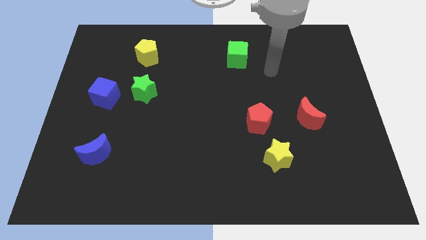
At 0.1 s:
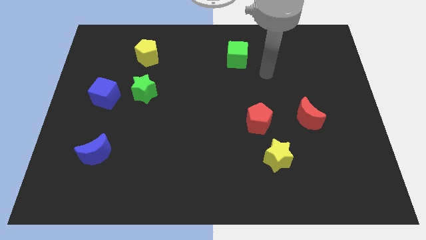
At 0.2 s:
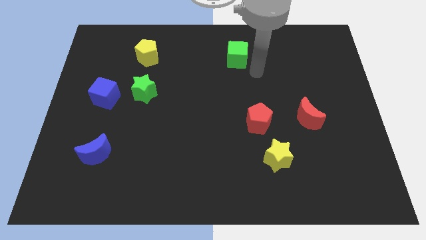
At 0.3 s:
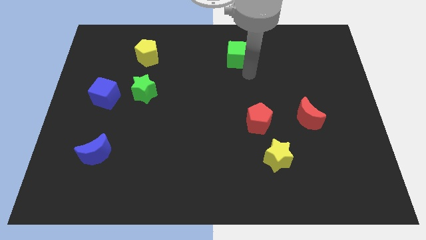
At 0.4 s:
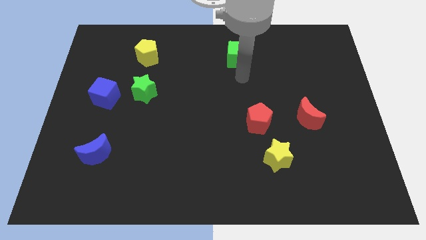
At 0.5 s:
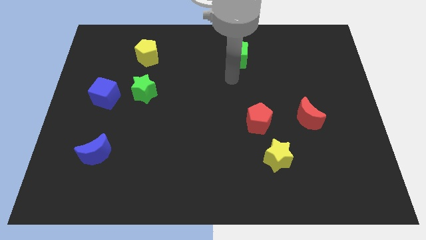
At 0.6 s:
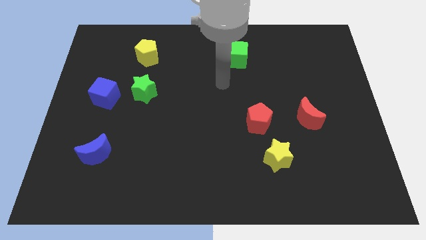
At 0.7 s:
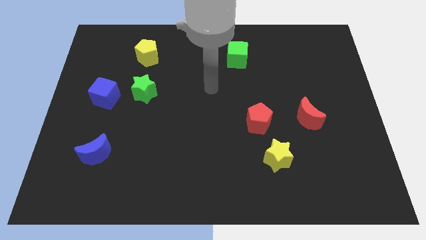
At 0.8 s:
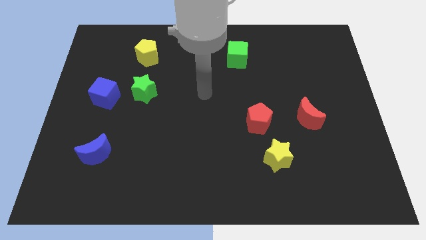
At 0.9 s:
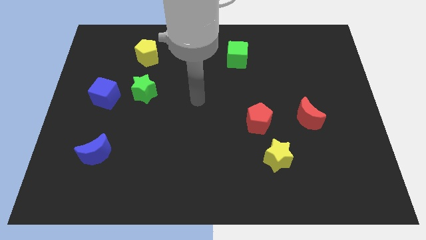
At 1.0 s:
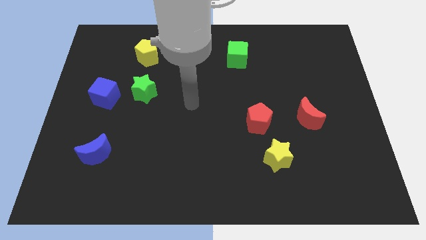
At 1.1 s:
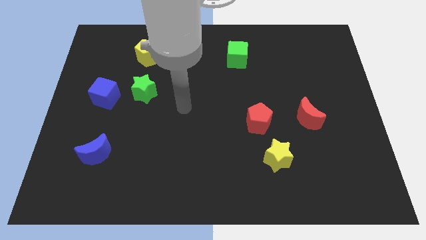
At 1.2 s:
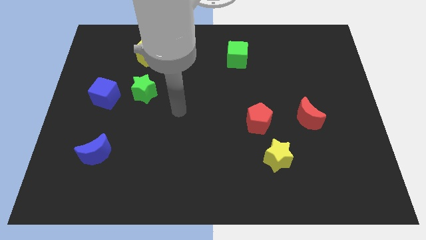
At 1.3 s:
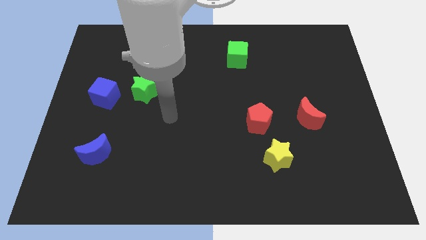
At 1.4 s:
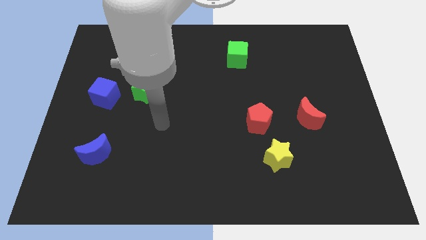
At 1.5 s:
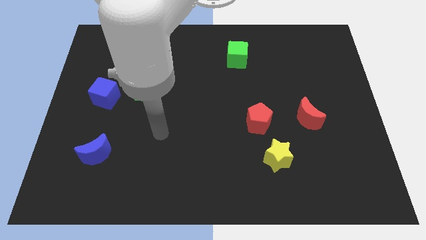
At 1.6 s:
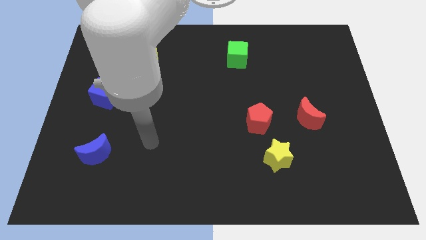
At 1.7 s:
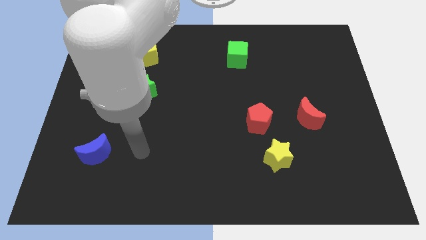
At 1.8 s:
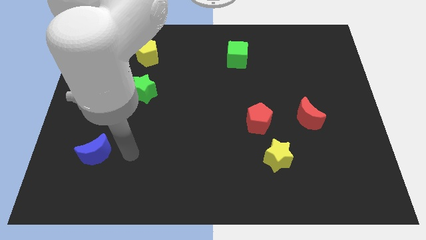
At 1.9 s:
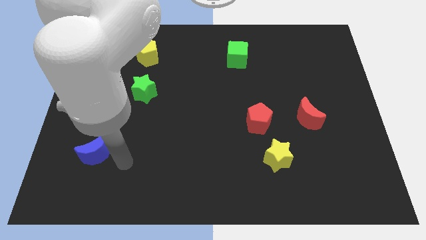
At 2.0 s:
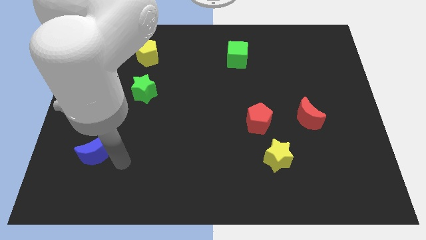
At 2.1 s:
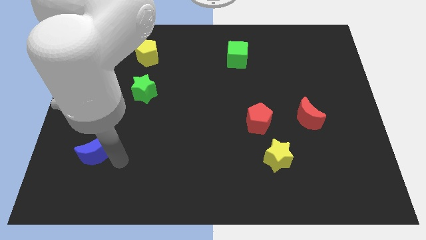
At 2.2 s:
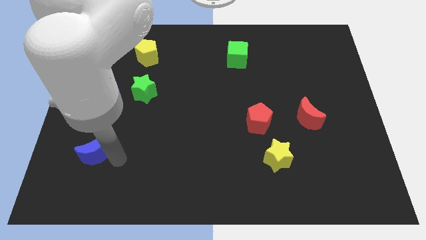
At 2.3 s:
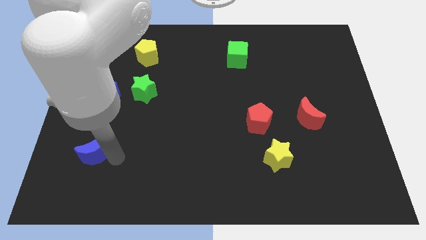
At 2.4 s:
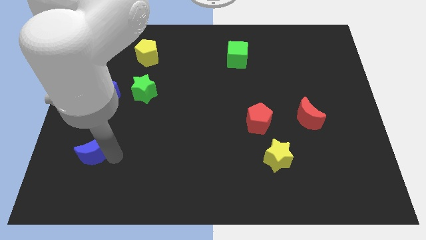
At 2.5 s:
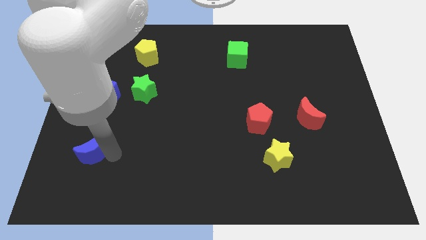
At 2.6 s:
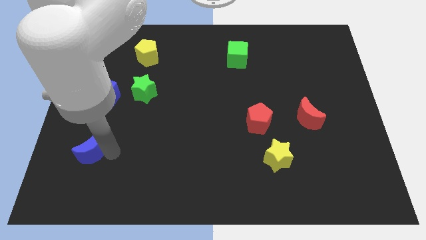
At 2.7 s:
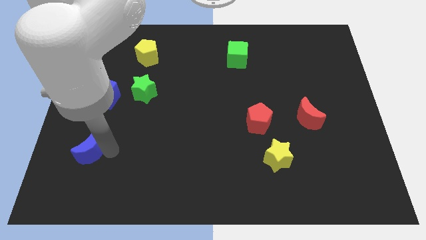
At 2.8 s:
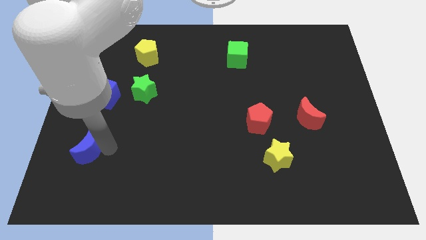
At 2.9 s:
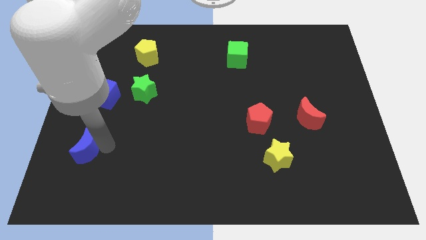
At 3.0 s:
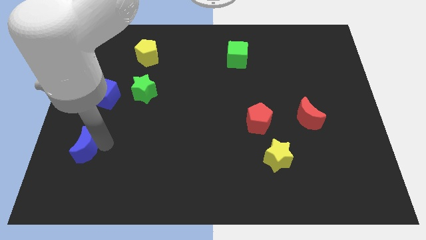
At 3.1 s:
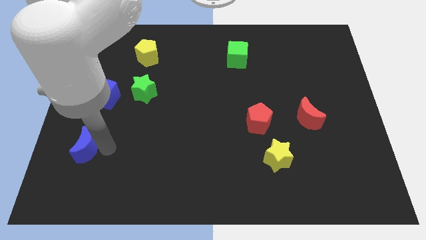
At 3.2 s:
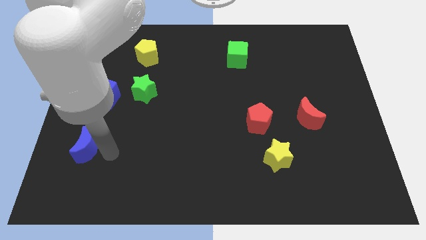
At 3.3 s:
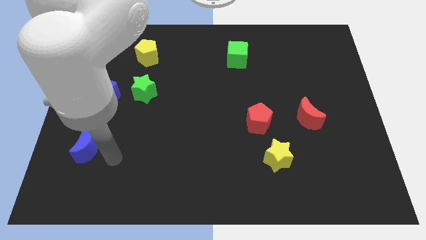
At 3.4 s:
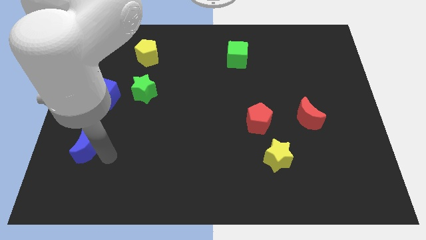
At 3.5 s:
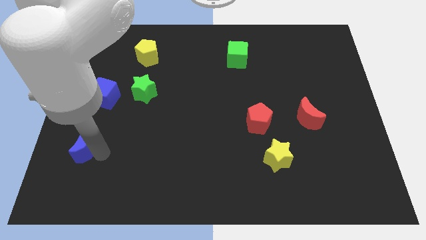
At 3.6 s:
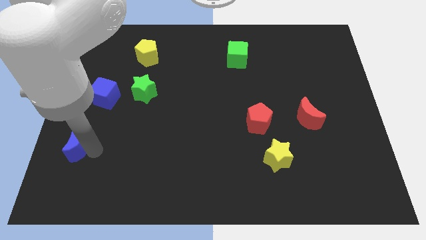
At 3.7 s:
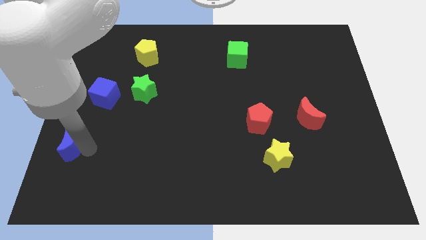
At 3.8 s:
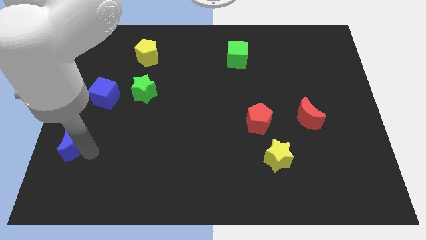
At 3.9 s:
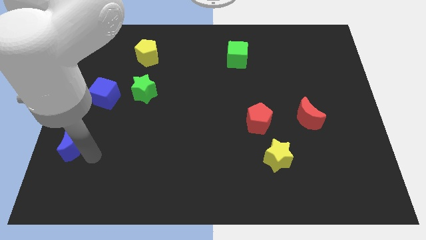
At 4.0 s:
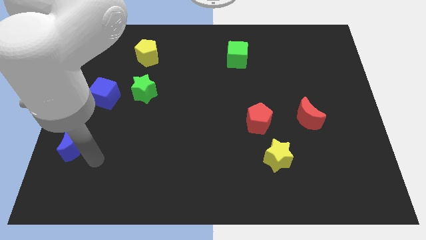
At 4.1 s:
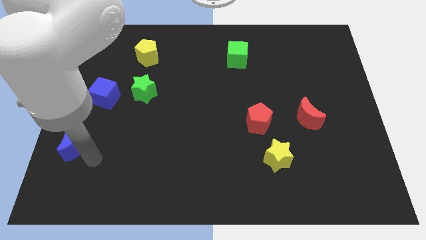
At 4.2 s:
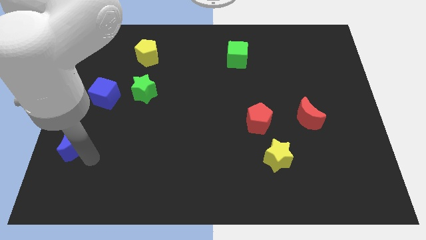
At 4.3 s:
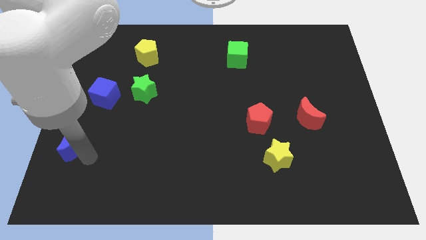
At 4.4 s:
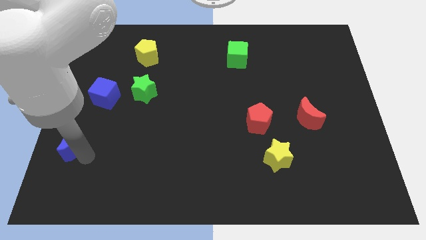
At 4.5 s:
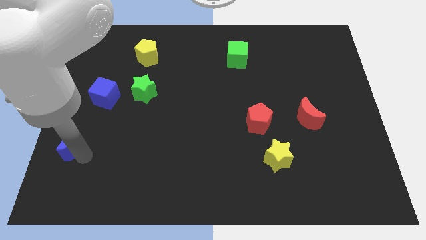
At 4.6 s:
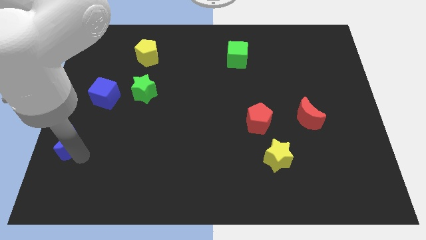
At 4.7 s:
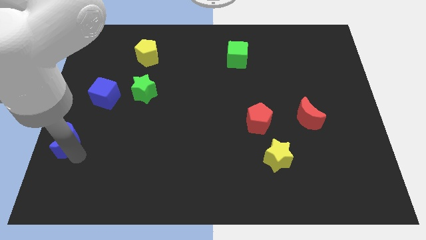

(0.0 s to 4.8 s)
push the blue moon to the left side of the board

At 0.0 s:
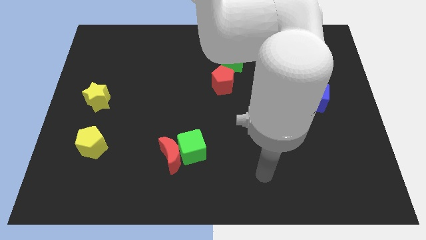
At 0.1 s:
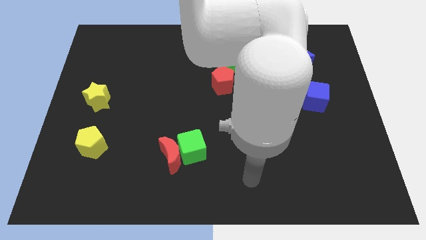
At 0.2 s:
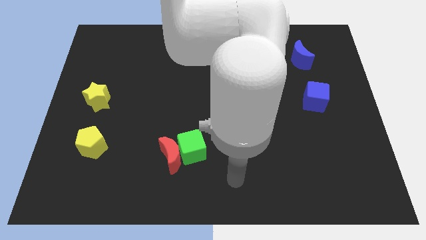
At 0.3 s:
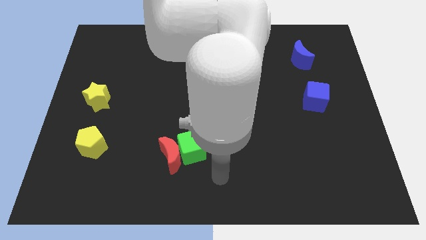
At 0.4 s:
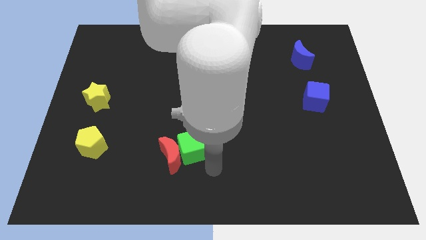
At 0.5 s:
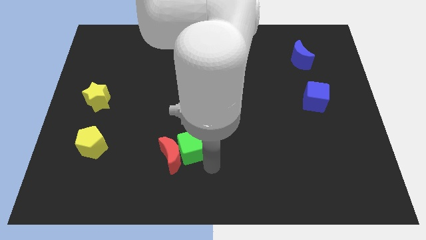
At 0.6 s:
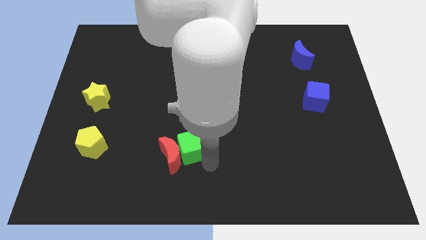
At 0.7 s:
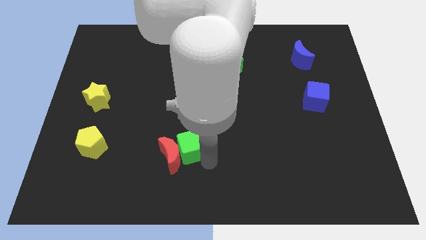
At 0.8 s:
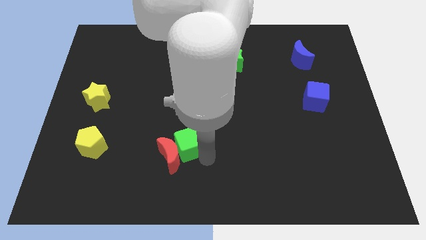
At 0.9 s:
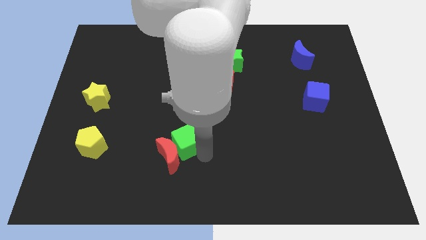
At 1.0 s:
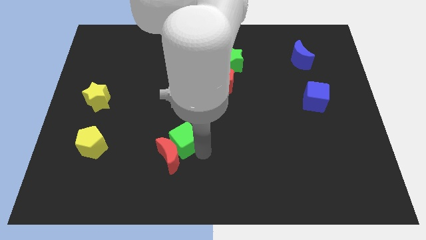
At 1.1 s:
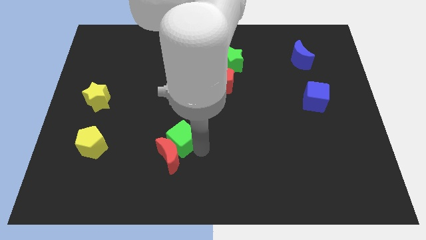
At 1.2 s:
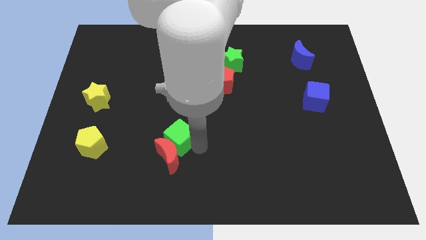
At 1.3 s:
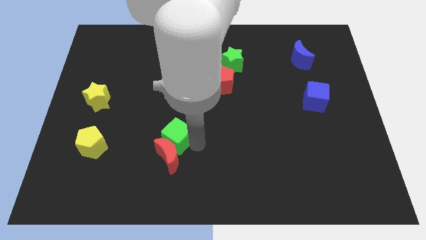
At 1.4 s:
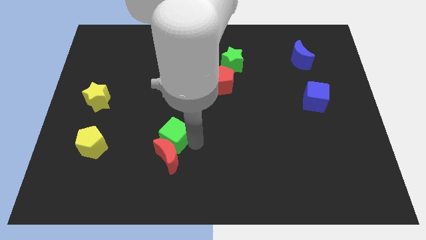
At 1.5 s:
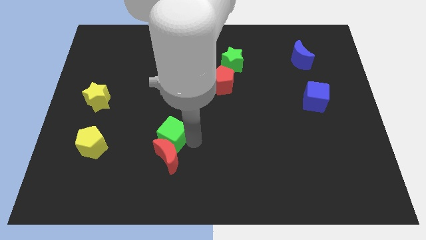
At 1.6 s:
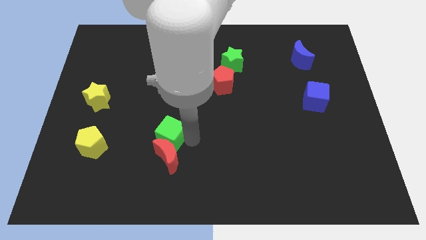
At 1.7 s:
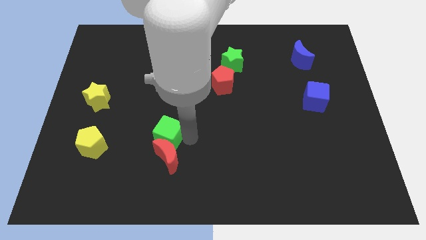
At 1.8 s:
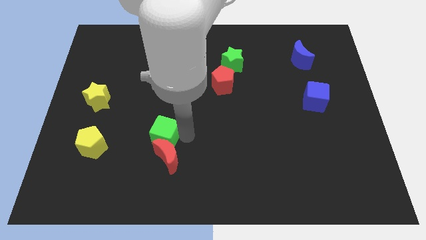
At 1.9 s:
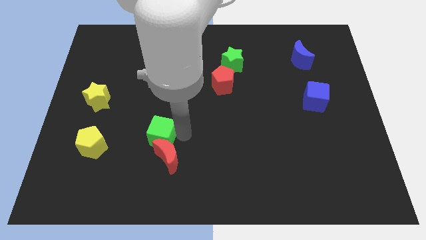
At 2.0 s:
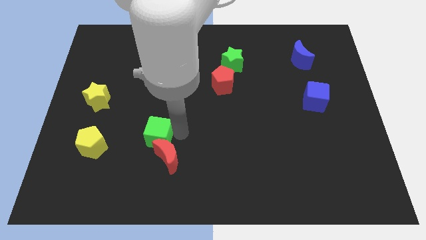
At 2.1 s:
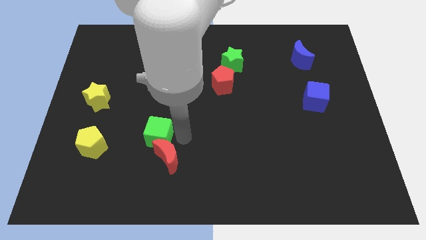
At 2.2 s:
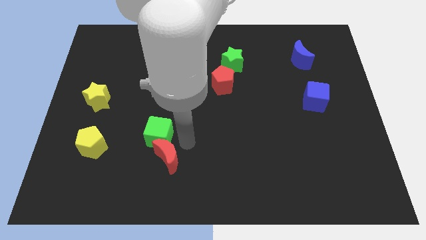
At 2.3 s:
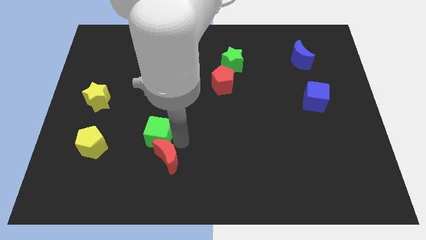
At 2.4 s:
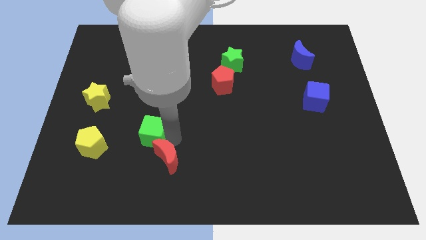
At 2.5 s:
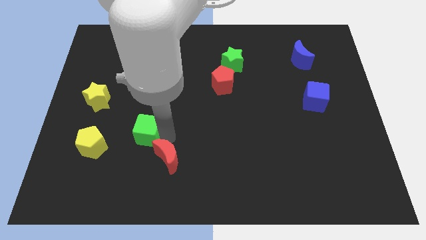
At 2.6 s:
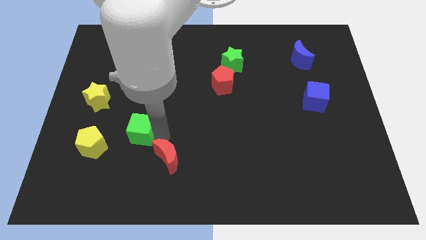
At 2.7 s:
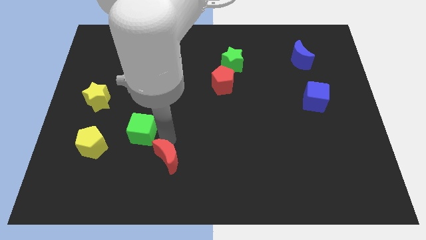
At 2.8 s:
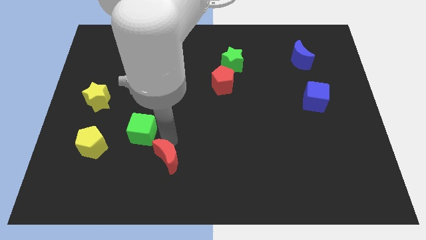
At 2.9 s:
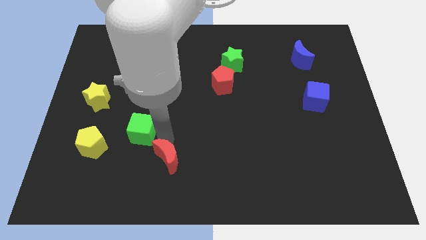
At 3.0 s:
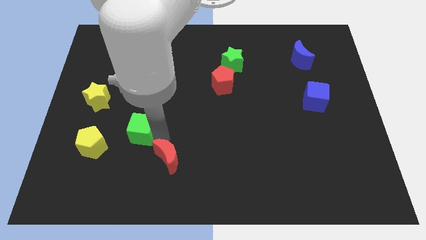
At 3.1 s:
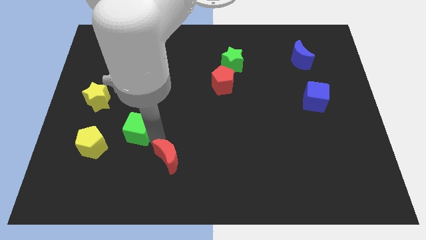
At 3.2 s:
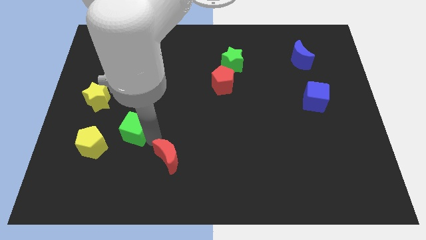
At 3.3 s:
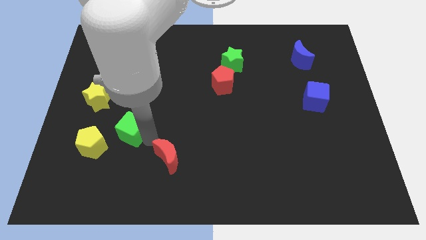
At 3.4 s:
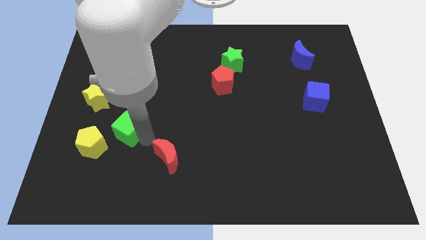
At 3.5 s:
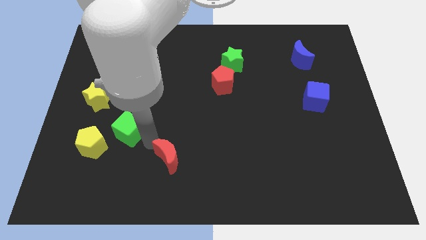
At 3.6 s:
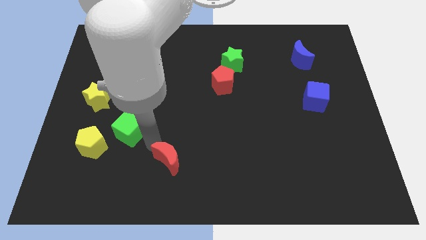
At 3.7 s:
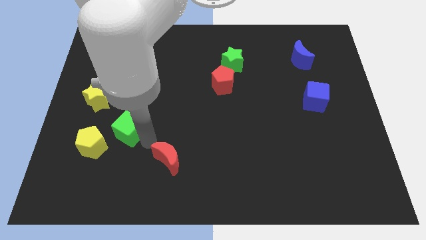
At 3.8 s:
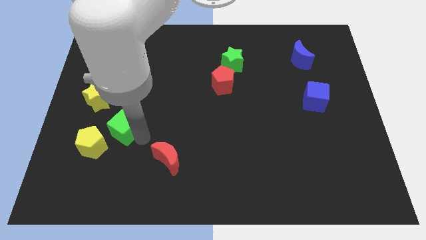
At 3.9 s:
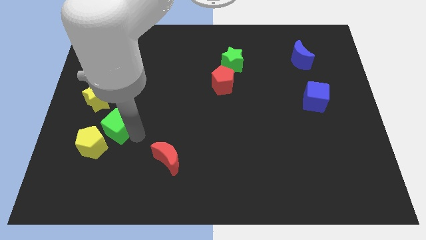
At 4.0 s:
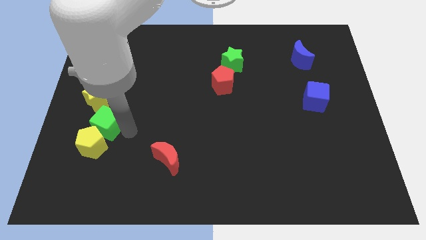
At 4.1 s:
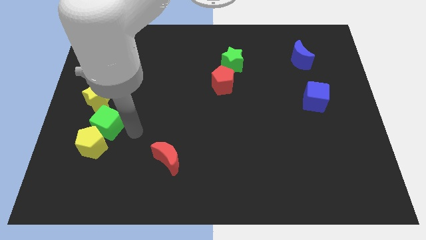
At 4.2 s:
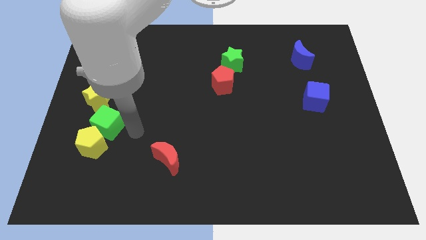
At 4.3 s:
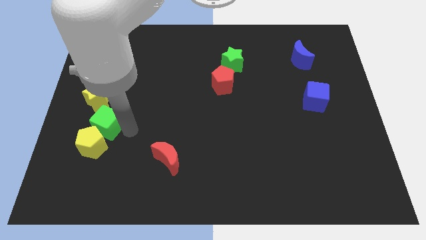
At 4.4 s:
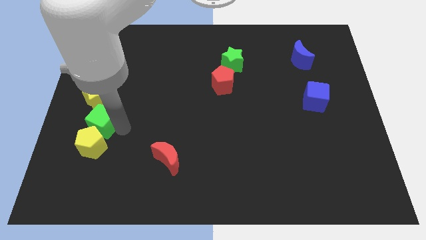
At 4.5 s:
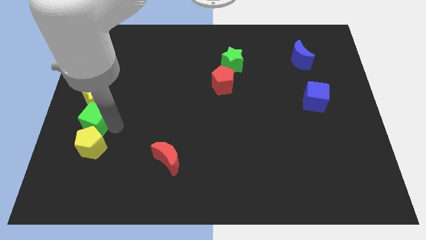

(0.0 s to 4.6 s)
put the green cube to the left side of the board
